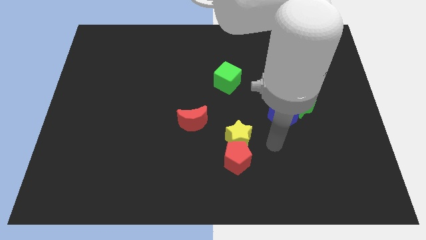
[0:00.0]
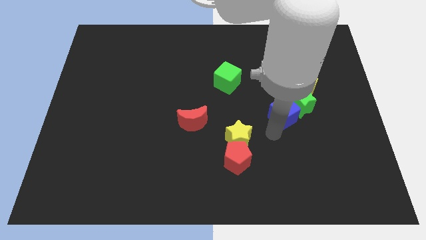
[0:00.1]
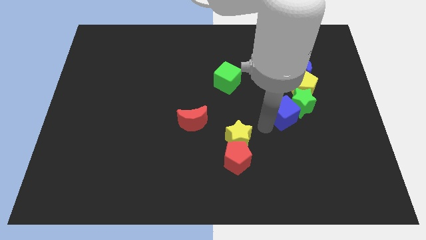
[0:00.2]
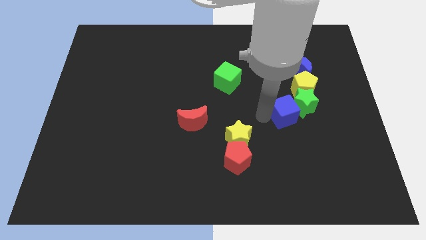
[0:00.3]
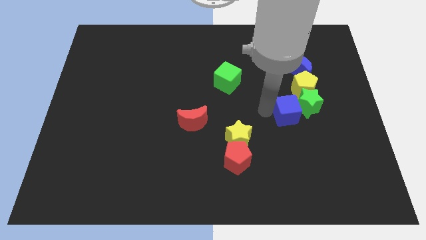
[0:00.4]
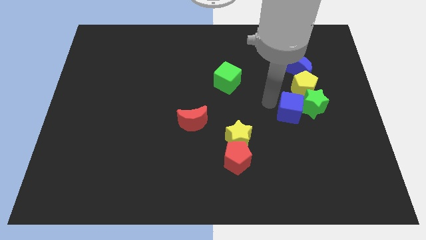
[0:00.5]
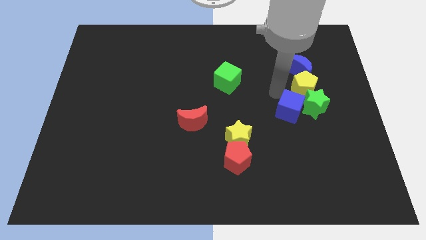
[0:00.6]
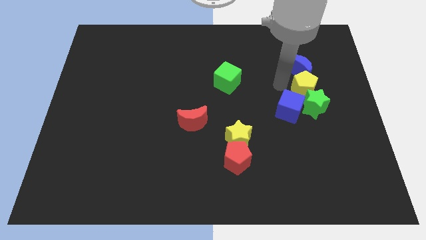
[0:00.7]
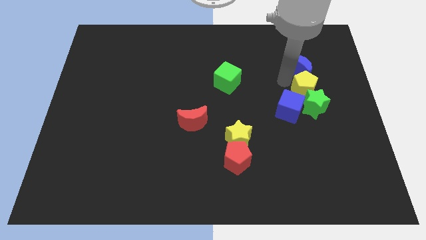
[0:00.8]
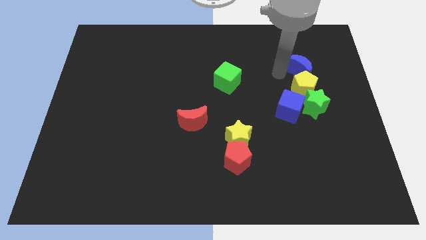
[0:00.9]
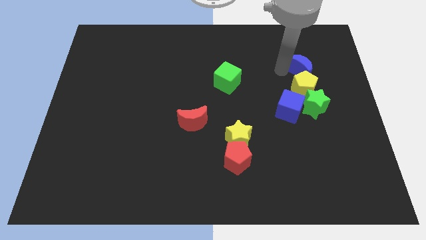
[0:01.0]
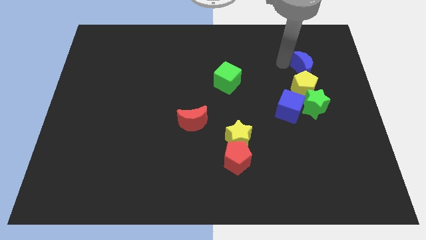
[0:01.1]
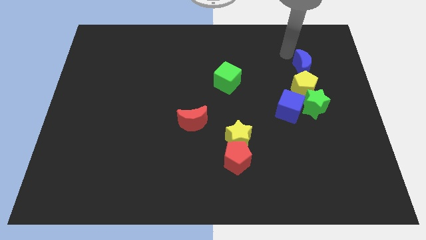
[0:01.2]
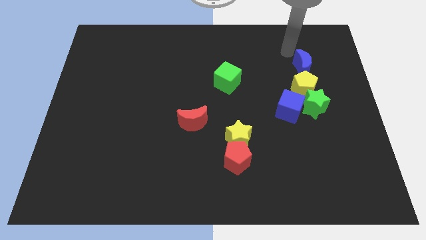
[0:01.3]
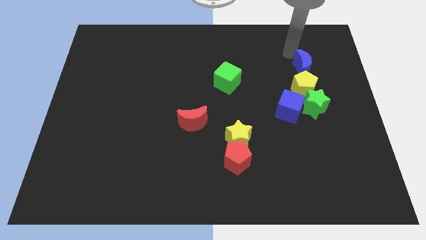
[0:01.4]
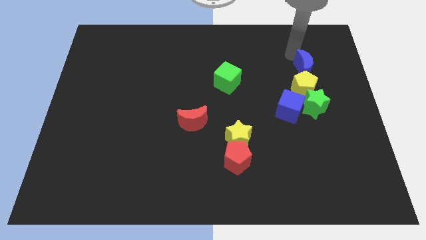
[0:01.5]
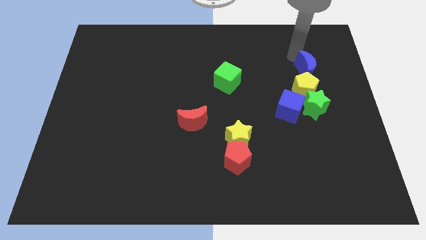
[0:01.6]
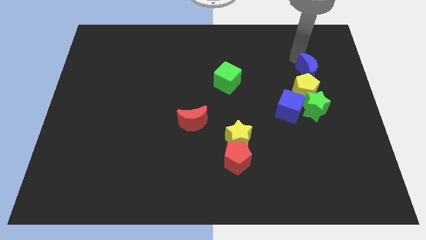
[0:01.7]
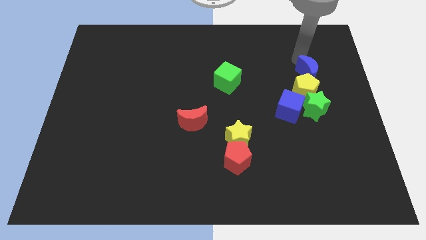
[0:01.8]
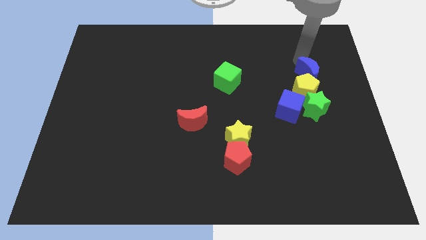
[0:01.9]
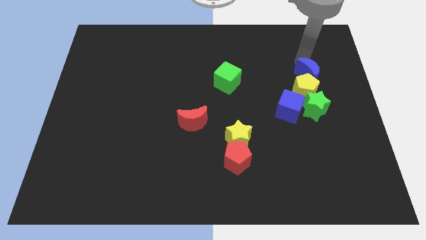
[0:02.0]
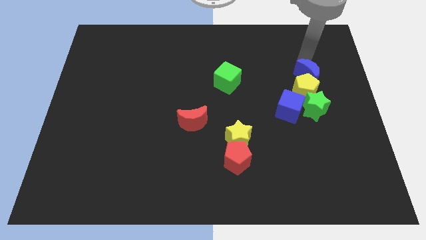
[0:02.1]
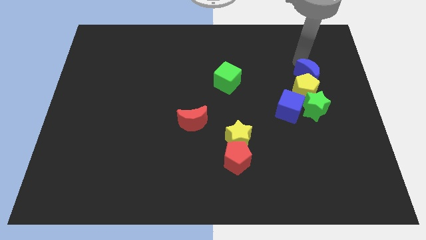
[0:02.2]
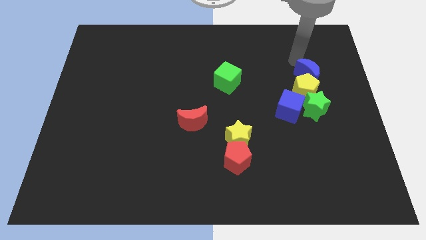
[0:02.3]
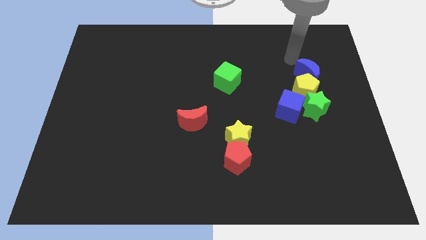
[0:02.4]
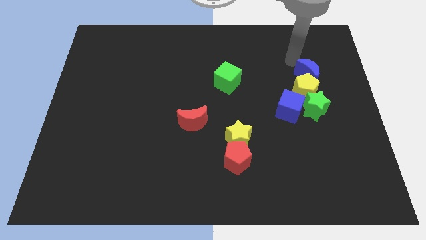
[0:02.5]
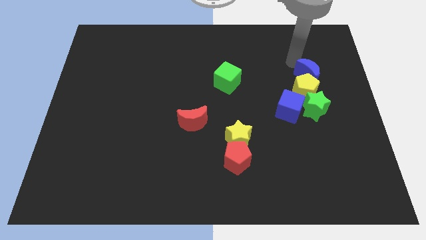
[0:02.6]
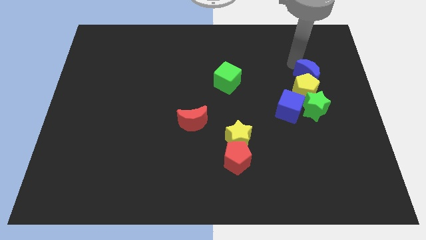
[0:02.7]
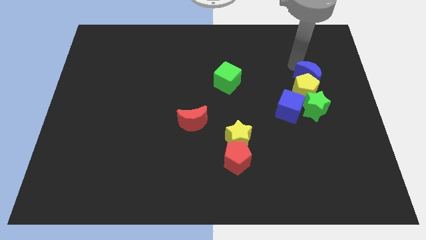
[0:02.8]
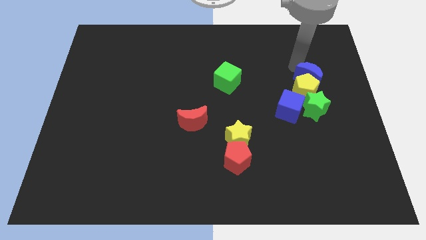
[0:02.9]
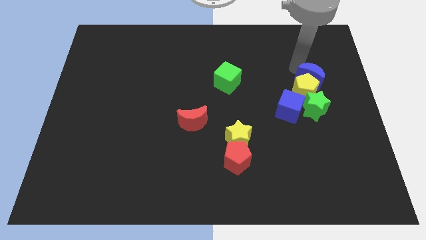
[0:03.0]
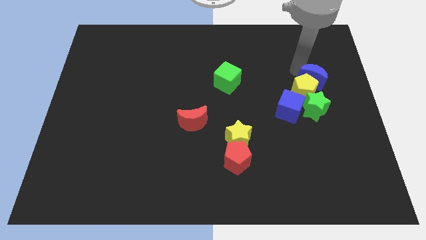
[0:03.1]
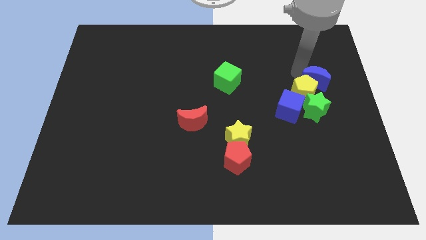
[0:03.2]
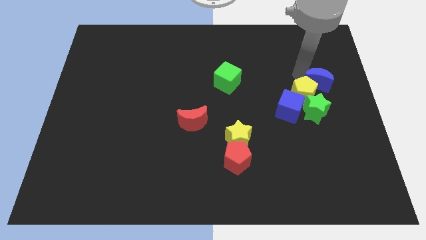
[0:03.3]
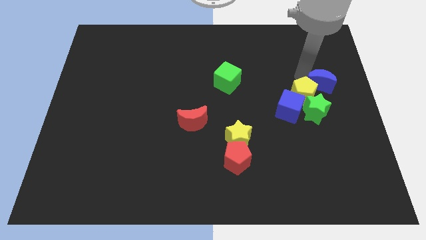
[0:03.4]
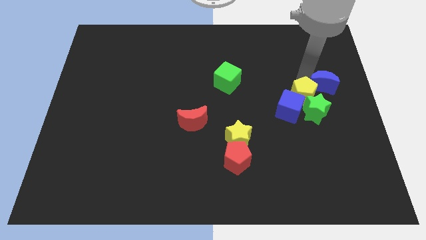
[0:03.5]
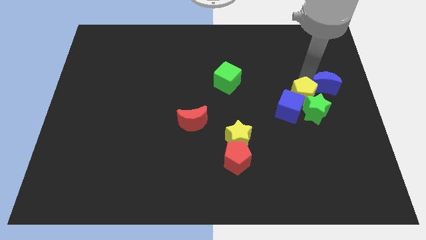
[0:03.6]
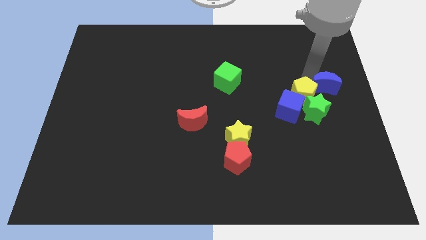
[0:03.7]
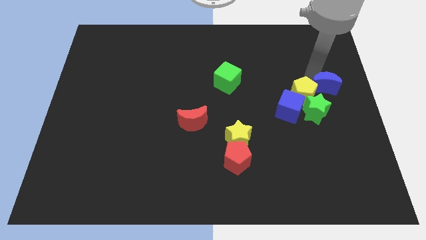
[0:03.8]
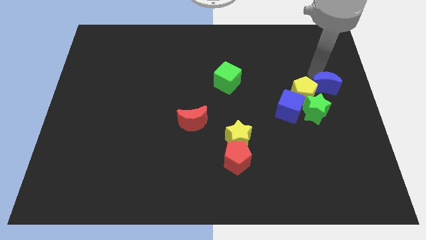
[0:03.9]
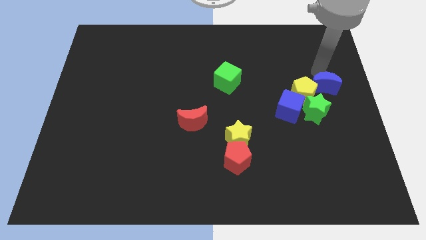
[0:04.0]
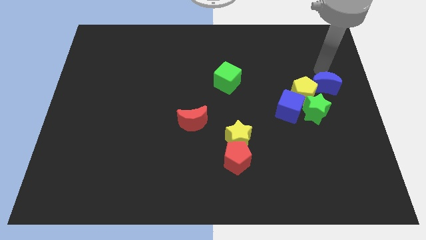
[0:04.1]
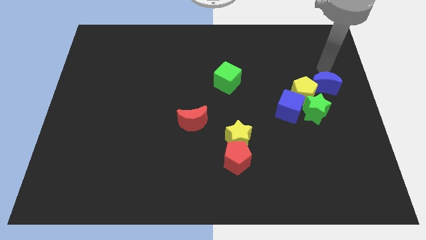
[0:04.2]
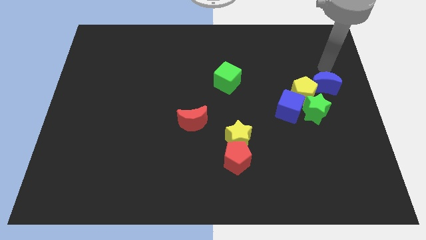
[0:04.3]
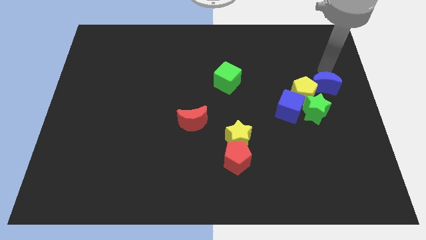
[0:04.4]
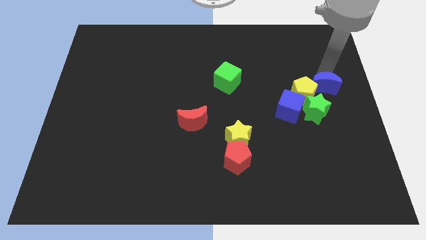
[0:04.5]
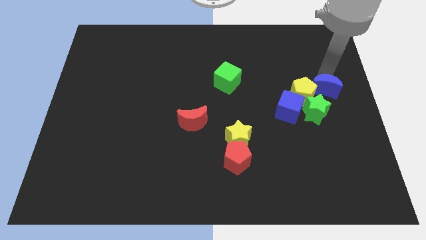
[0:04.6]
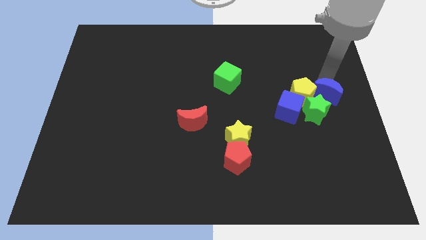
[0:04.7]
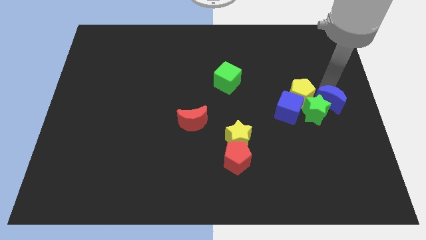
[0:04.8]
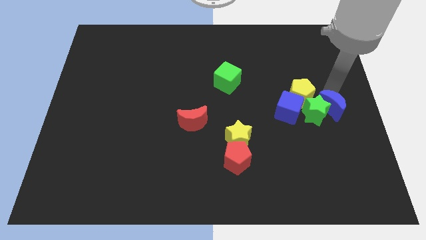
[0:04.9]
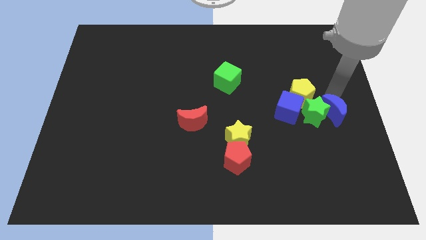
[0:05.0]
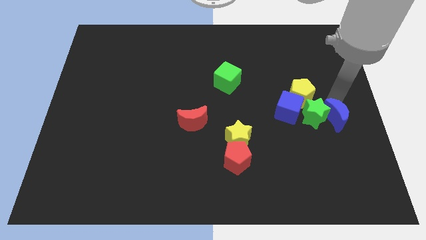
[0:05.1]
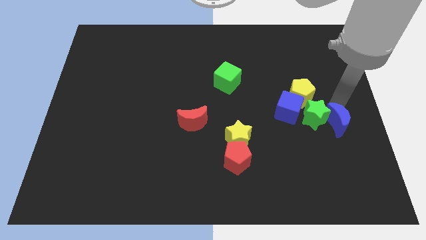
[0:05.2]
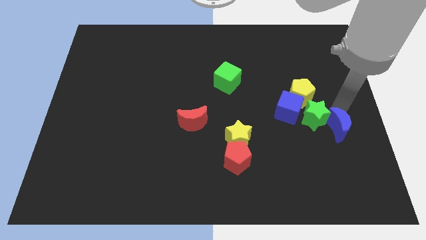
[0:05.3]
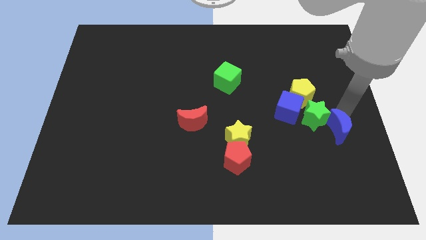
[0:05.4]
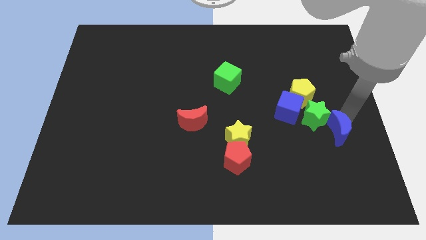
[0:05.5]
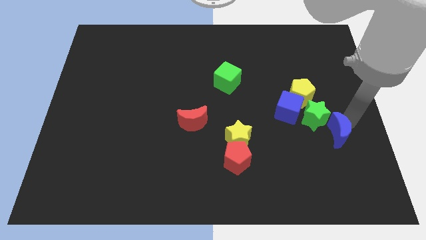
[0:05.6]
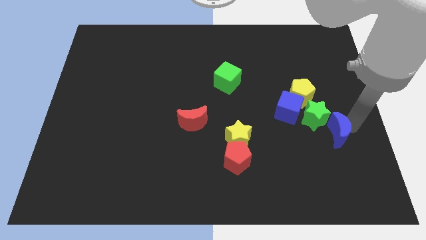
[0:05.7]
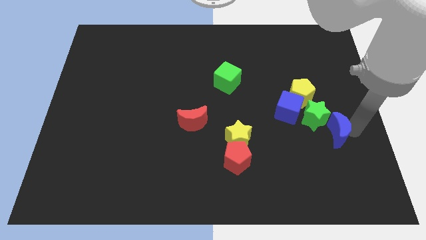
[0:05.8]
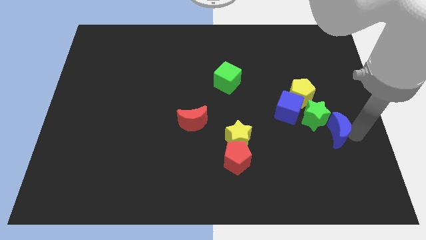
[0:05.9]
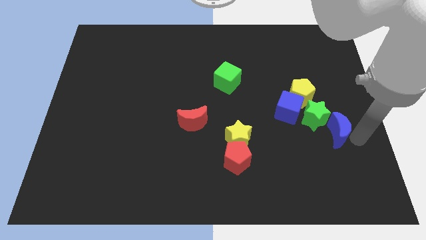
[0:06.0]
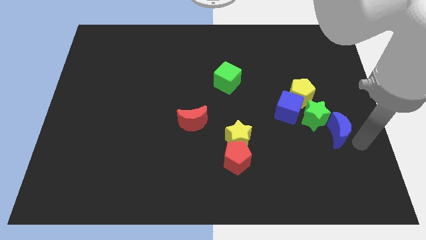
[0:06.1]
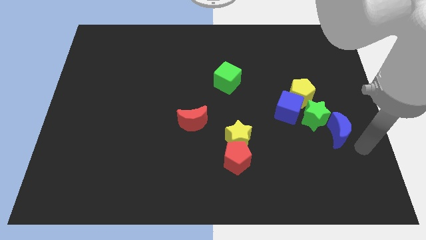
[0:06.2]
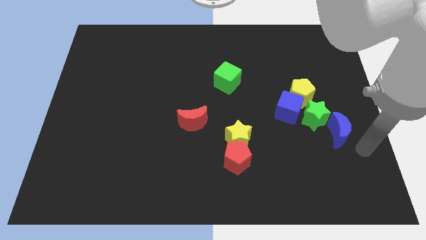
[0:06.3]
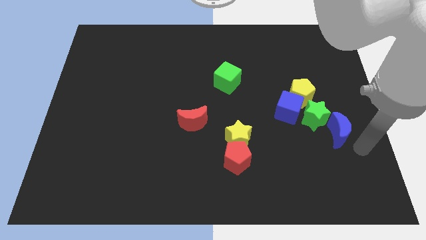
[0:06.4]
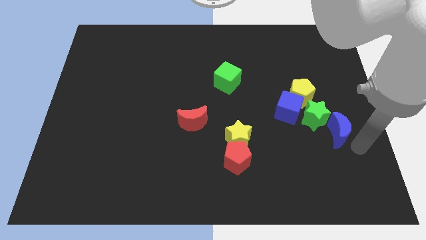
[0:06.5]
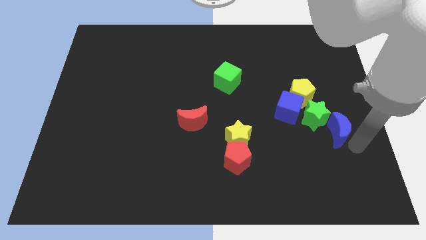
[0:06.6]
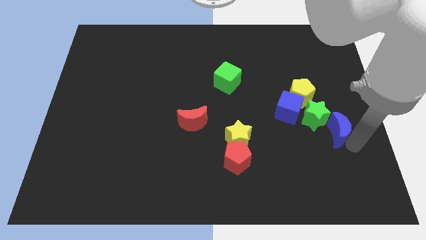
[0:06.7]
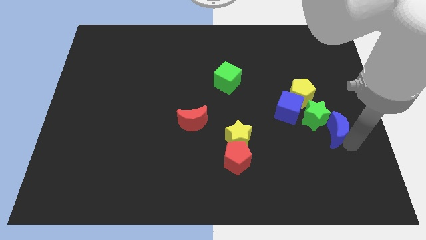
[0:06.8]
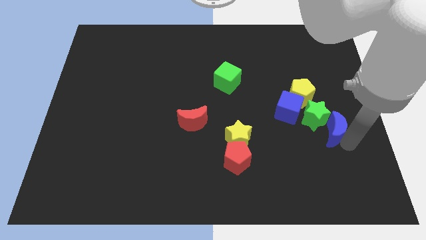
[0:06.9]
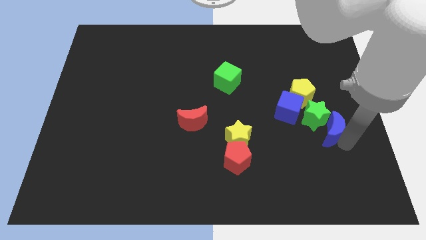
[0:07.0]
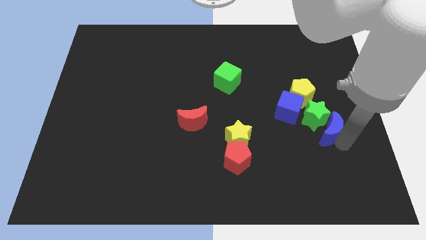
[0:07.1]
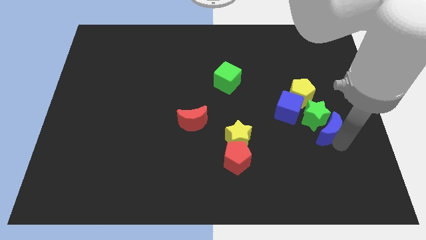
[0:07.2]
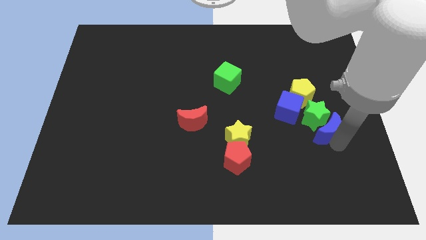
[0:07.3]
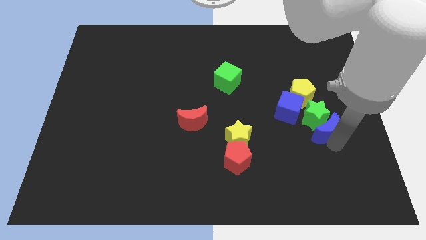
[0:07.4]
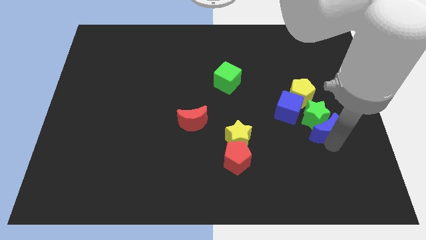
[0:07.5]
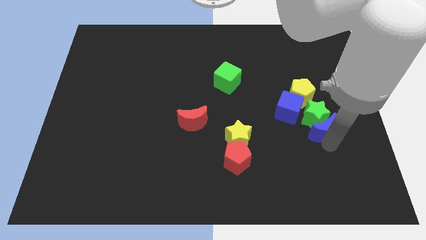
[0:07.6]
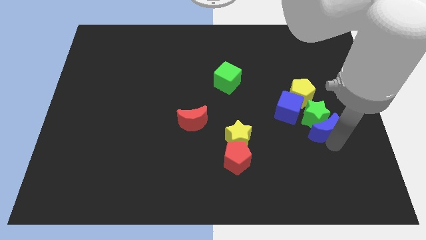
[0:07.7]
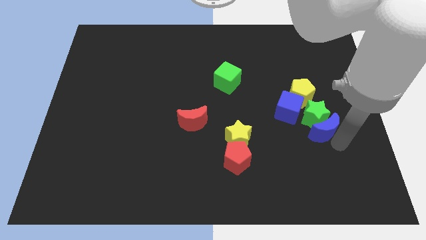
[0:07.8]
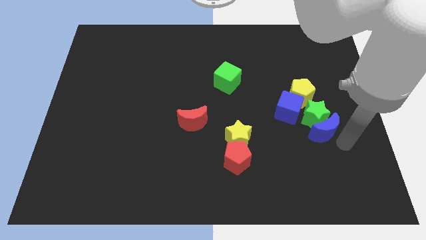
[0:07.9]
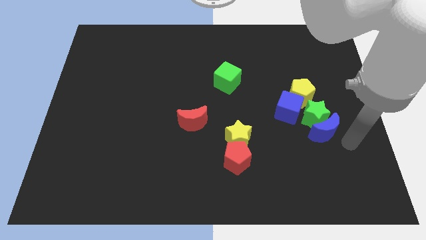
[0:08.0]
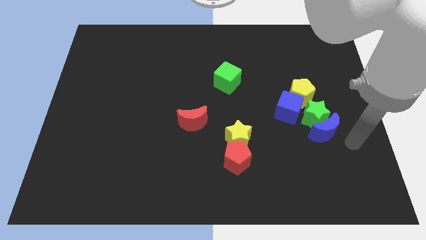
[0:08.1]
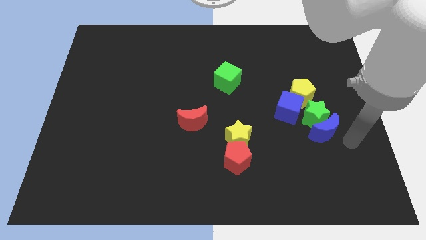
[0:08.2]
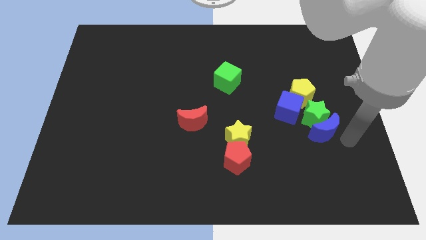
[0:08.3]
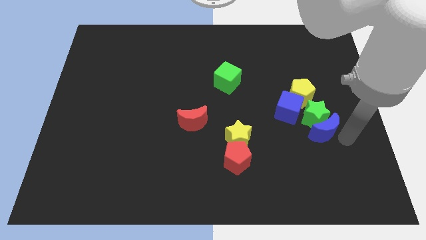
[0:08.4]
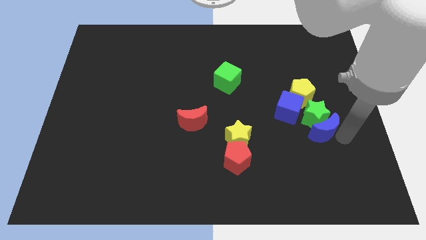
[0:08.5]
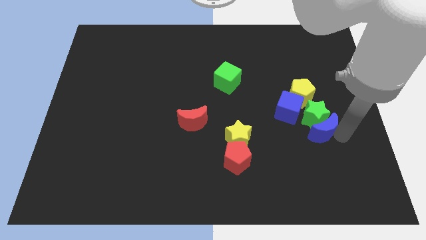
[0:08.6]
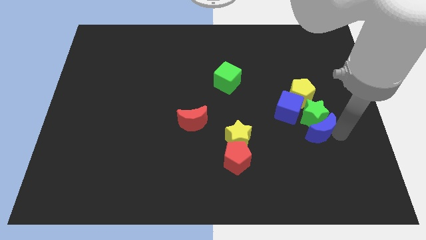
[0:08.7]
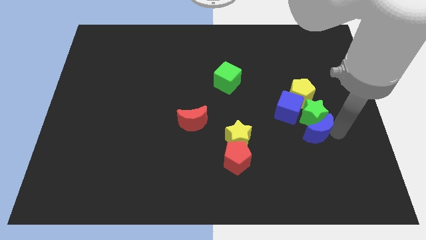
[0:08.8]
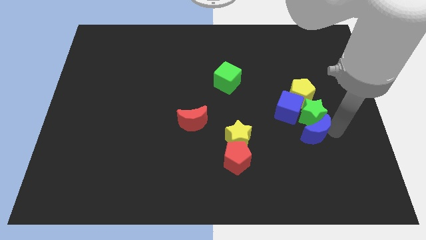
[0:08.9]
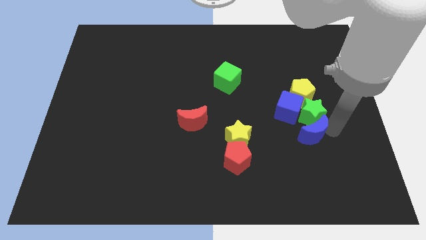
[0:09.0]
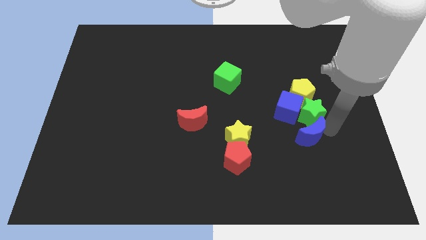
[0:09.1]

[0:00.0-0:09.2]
put the blue moon right of the yellow star
